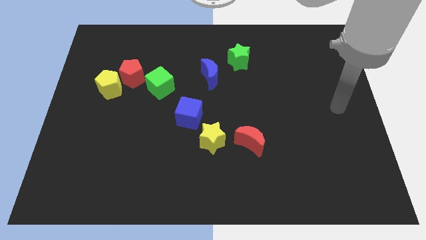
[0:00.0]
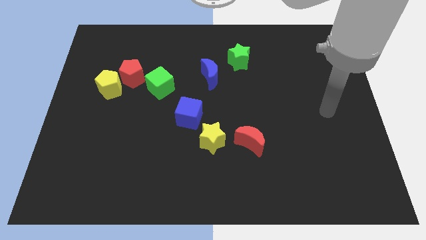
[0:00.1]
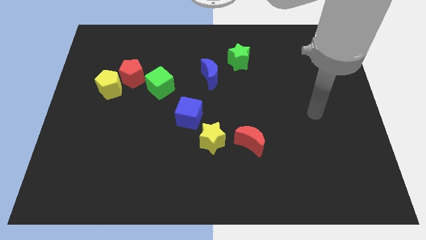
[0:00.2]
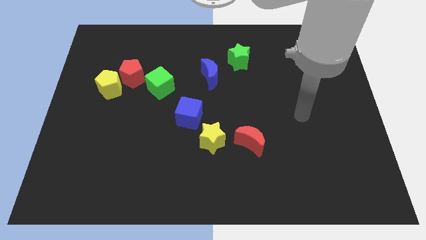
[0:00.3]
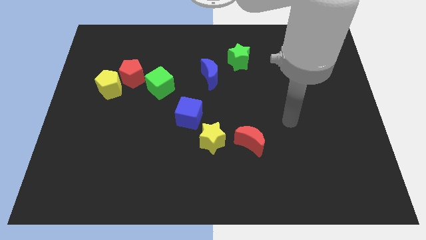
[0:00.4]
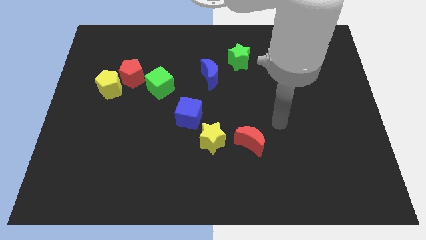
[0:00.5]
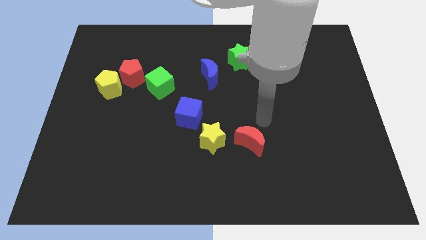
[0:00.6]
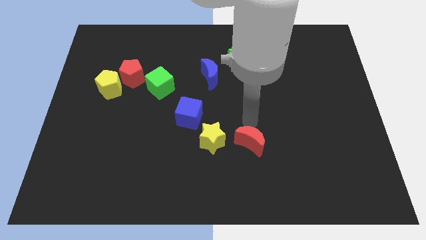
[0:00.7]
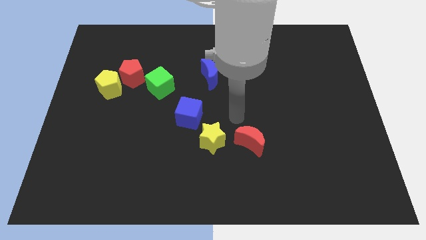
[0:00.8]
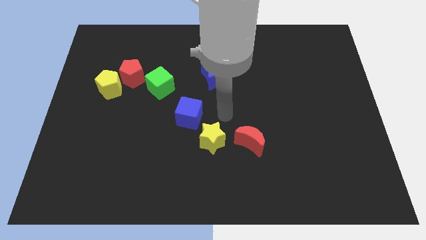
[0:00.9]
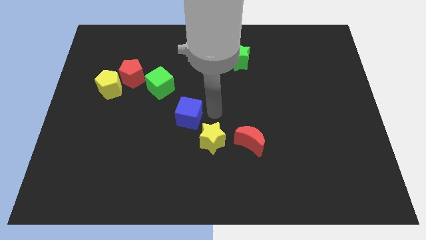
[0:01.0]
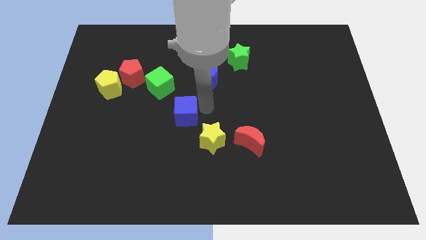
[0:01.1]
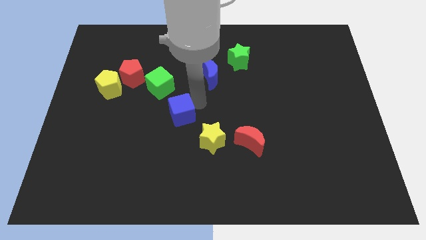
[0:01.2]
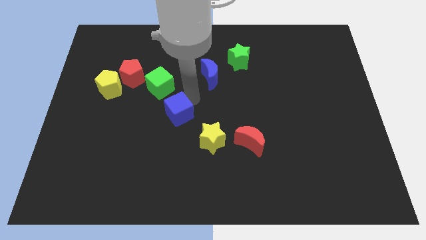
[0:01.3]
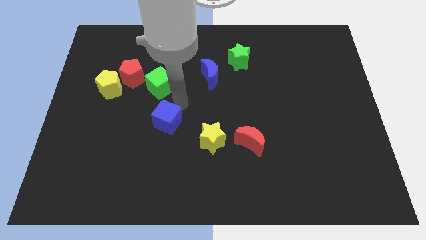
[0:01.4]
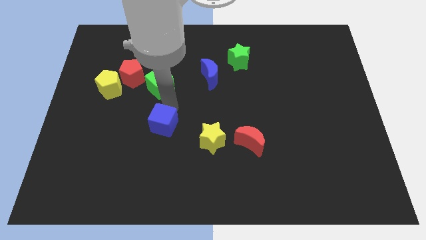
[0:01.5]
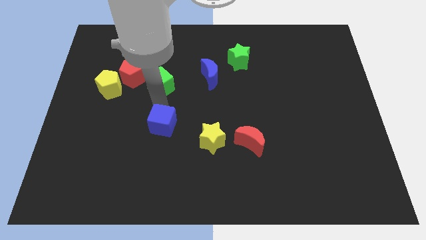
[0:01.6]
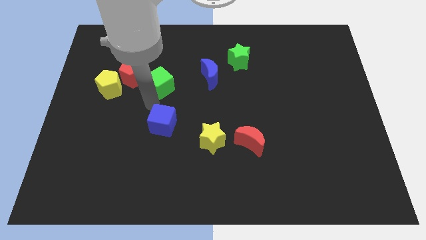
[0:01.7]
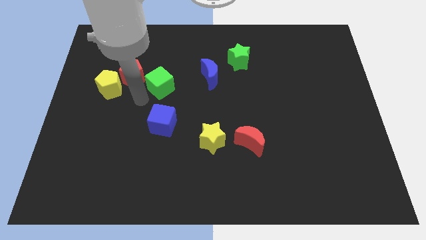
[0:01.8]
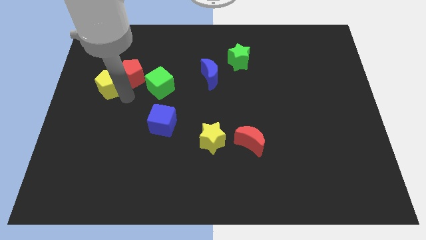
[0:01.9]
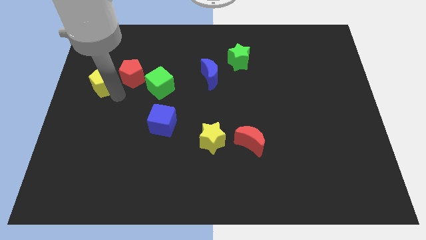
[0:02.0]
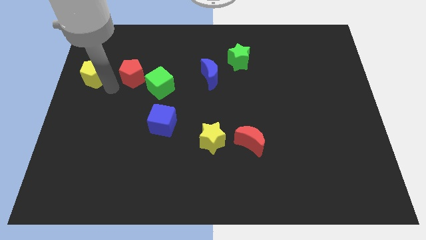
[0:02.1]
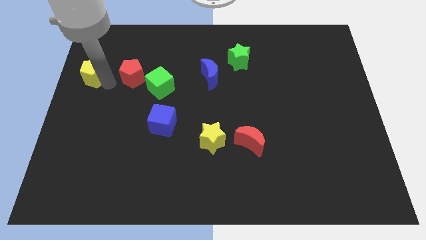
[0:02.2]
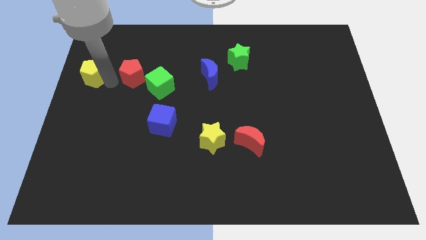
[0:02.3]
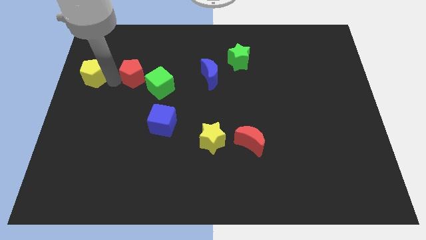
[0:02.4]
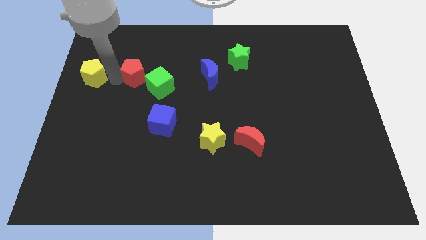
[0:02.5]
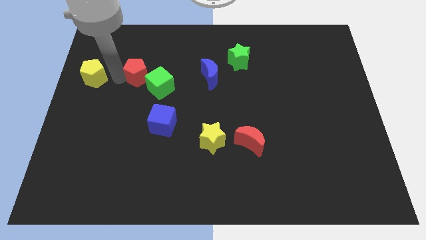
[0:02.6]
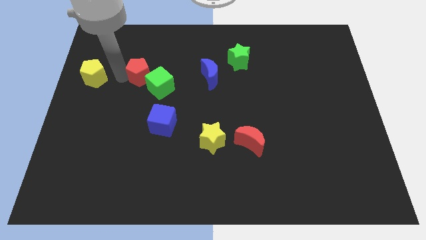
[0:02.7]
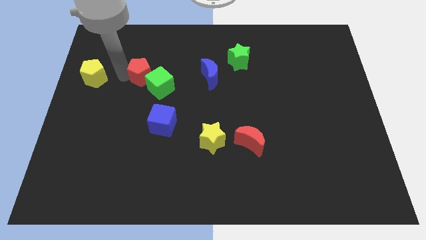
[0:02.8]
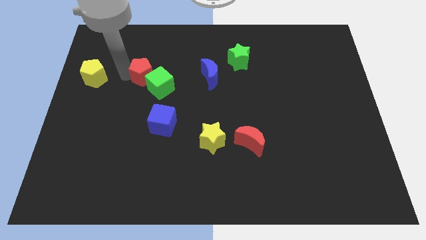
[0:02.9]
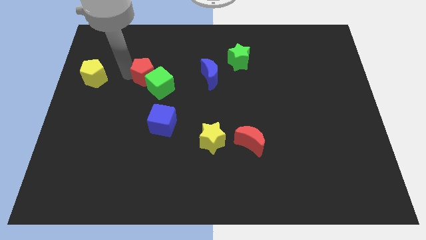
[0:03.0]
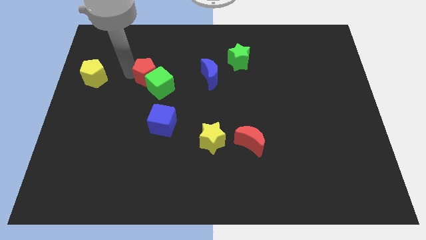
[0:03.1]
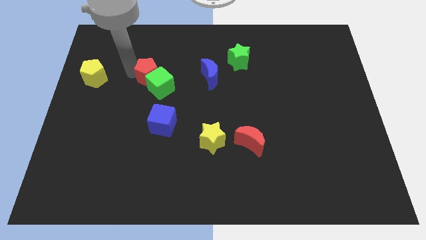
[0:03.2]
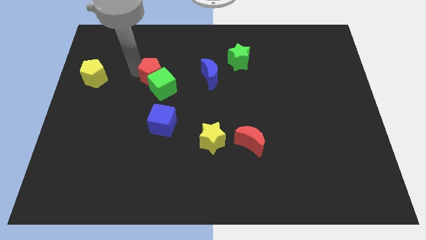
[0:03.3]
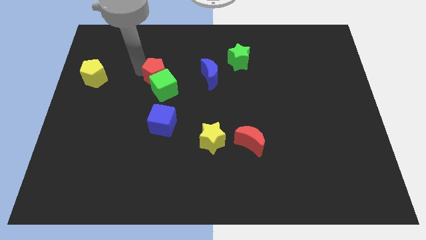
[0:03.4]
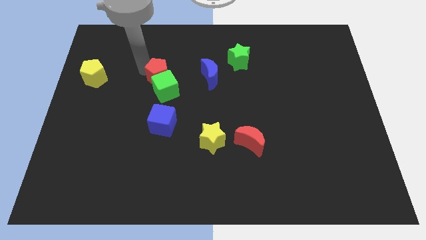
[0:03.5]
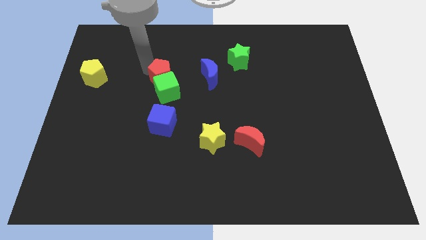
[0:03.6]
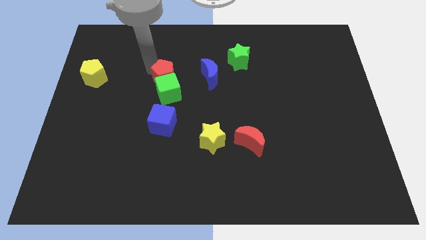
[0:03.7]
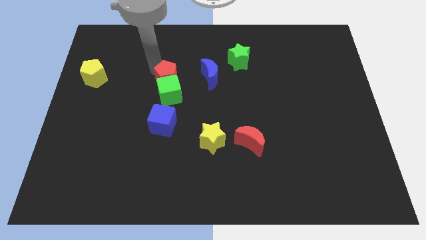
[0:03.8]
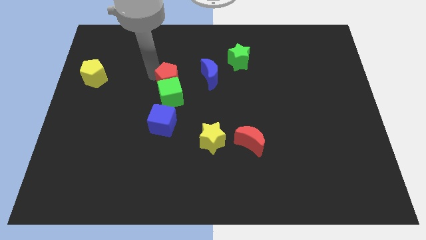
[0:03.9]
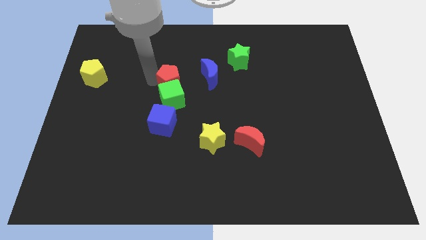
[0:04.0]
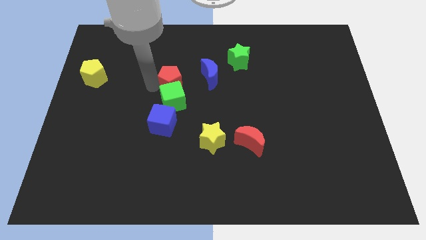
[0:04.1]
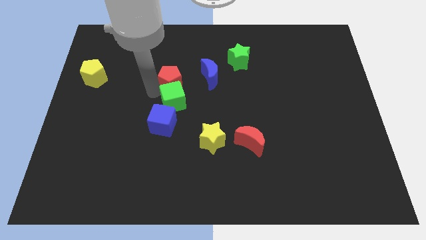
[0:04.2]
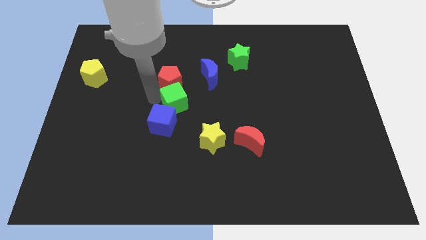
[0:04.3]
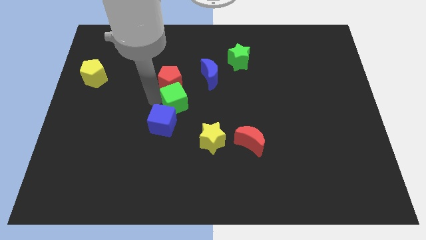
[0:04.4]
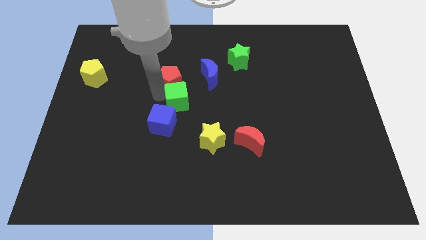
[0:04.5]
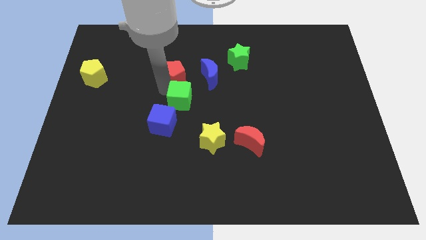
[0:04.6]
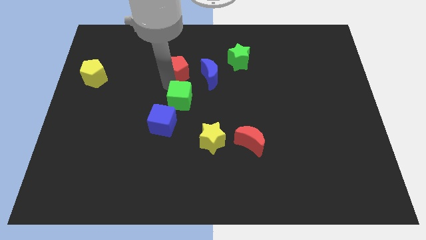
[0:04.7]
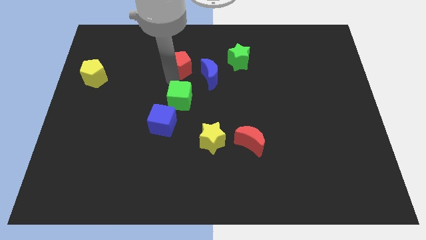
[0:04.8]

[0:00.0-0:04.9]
push the red pentagon to the top left of the blue moon

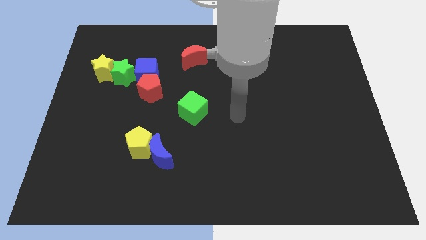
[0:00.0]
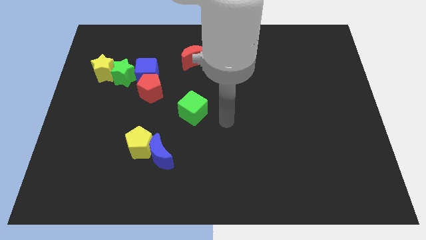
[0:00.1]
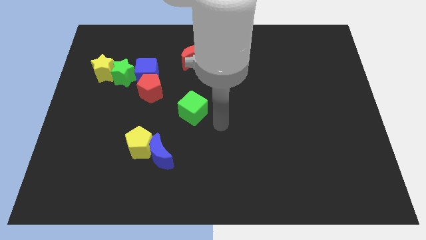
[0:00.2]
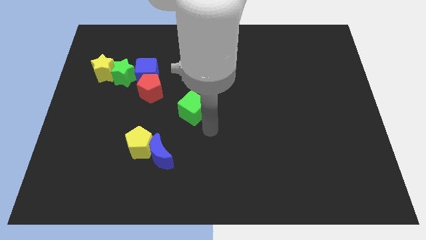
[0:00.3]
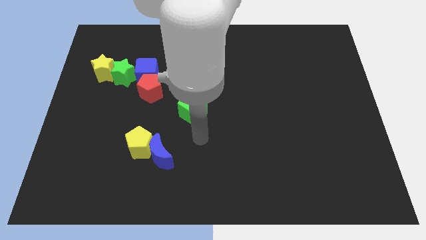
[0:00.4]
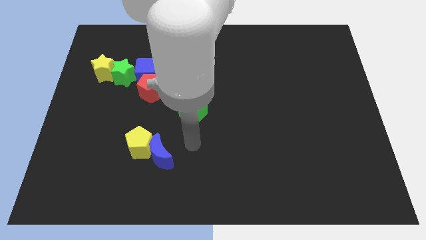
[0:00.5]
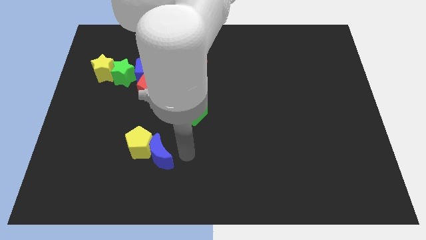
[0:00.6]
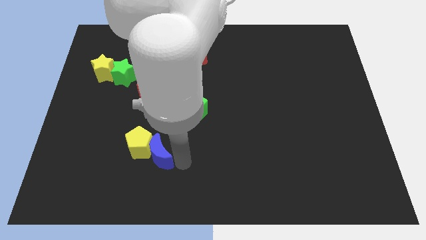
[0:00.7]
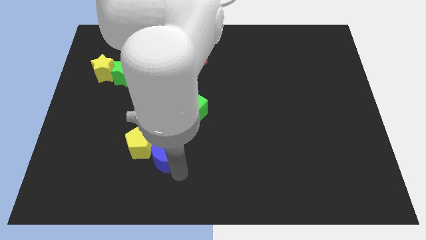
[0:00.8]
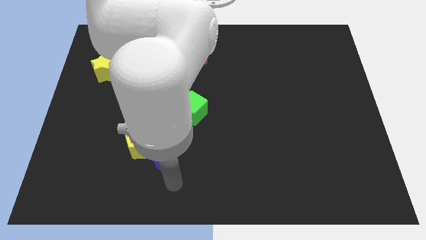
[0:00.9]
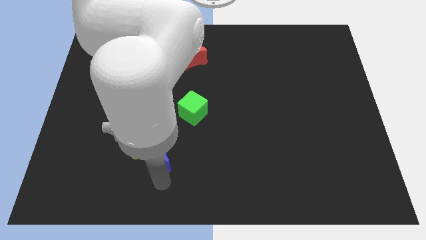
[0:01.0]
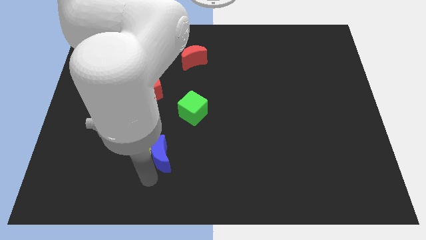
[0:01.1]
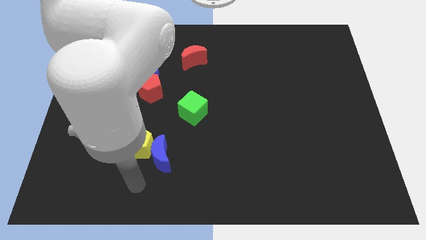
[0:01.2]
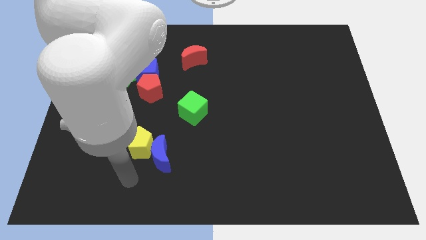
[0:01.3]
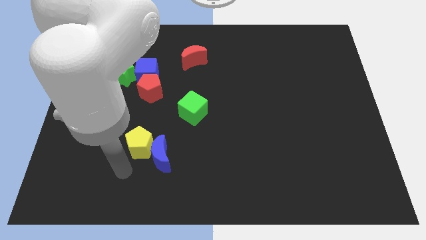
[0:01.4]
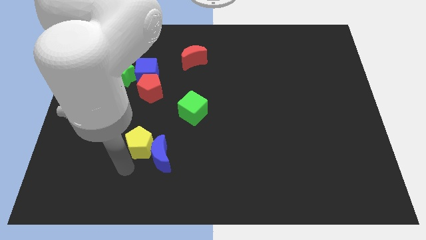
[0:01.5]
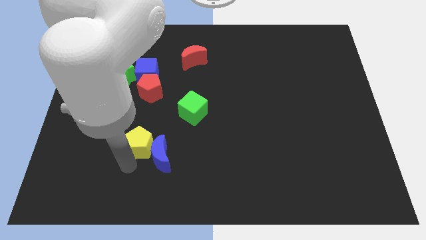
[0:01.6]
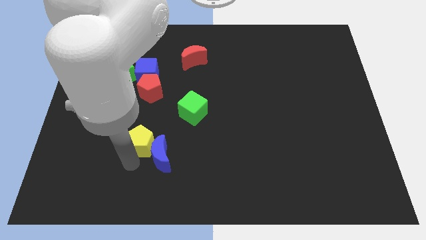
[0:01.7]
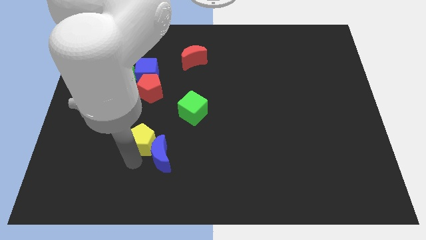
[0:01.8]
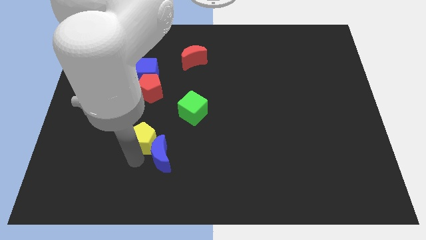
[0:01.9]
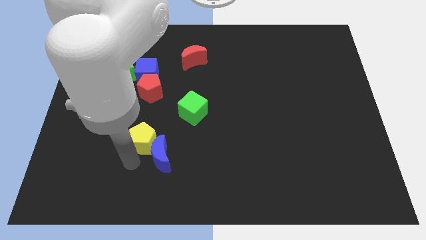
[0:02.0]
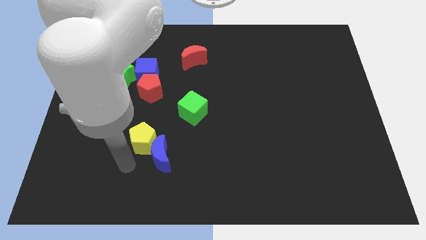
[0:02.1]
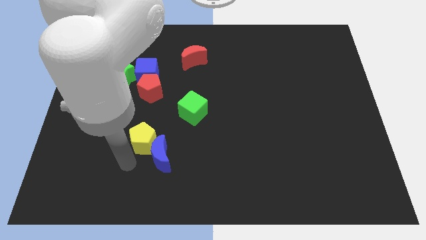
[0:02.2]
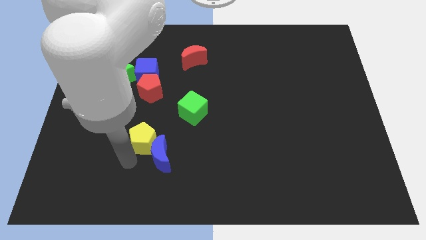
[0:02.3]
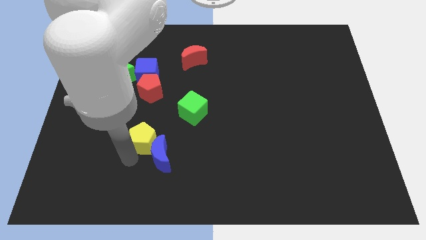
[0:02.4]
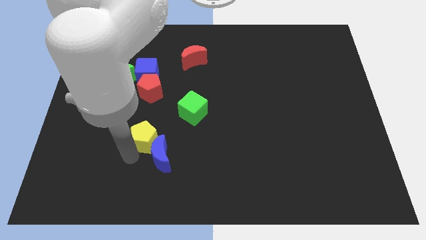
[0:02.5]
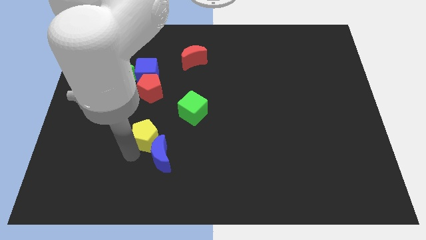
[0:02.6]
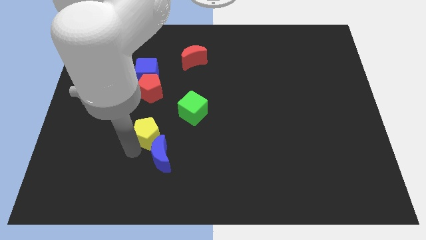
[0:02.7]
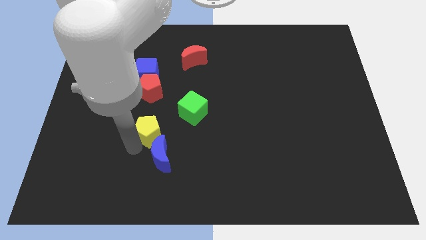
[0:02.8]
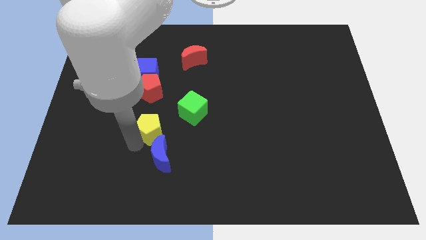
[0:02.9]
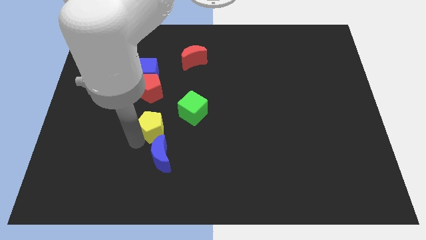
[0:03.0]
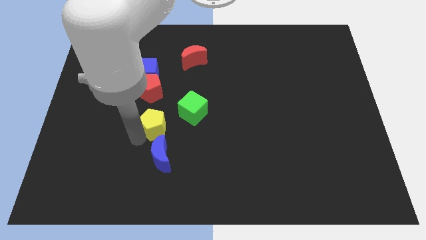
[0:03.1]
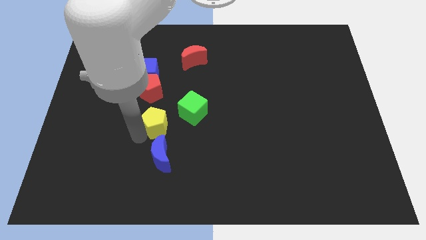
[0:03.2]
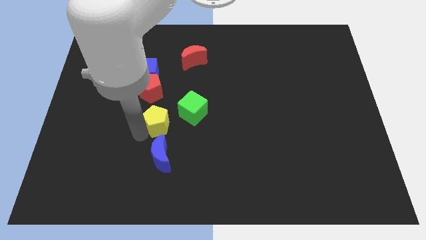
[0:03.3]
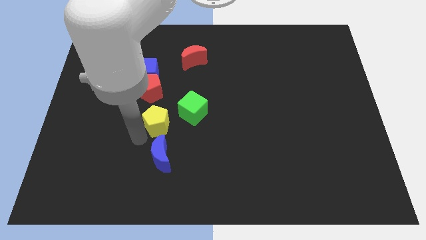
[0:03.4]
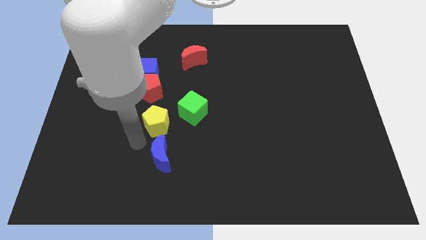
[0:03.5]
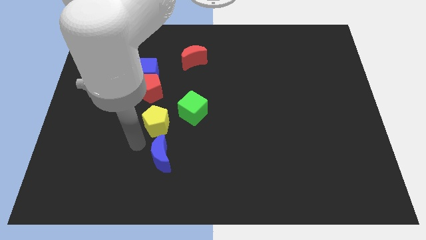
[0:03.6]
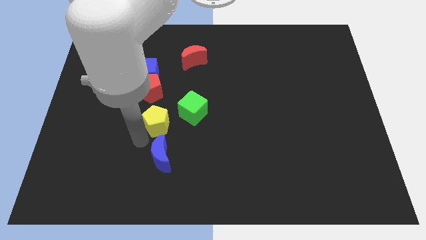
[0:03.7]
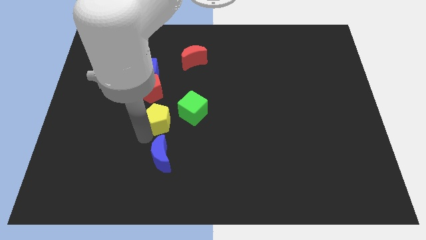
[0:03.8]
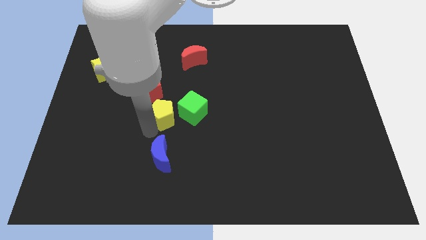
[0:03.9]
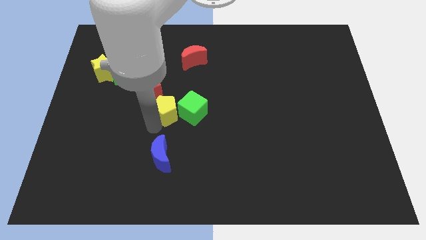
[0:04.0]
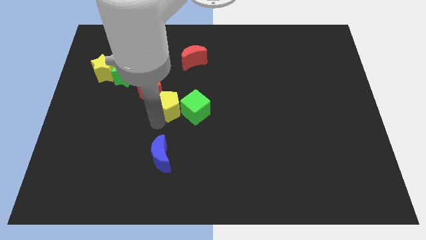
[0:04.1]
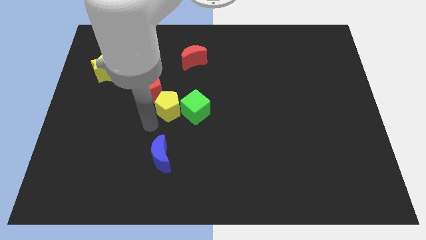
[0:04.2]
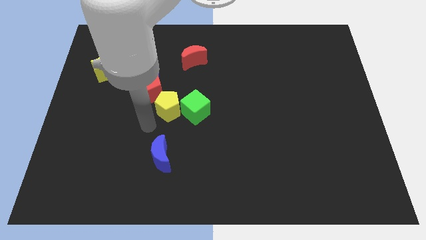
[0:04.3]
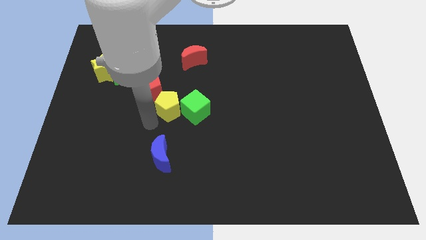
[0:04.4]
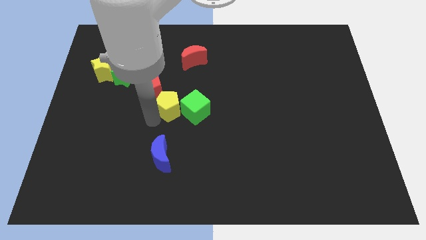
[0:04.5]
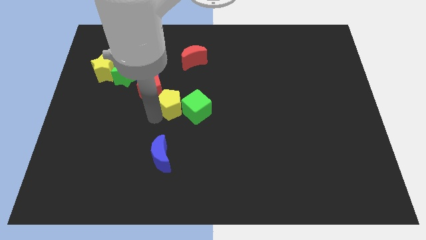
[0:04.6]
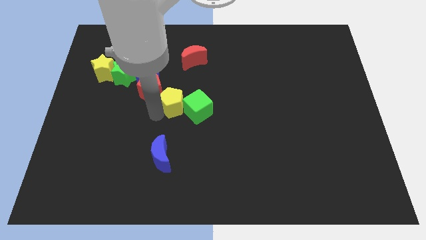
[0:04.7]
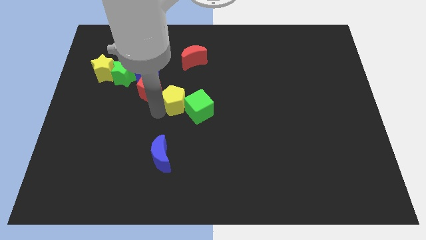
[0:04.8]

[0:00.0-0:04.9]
move the yellow pentagon to the bottom of the red moon
